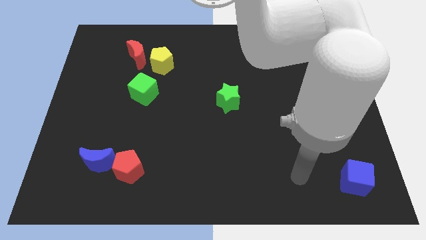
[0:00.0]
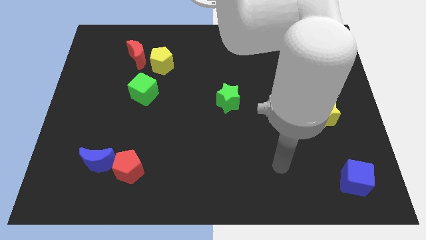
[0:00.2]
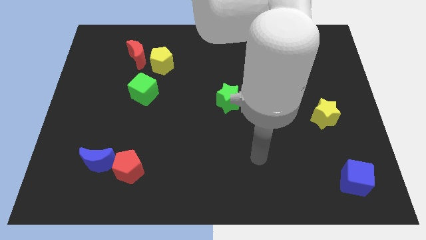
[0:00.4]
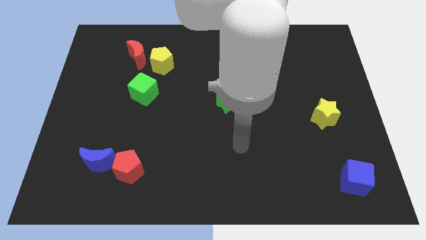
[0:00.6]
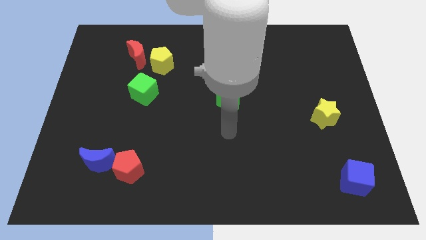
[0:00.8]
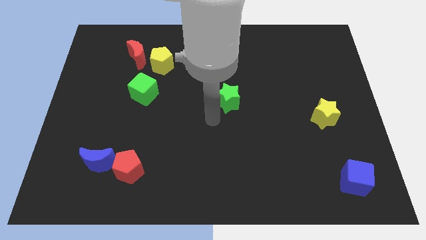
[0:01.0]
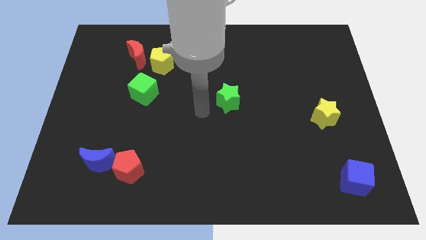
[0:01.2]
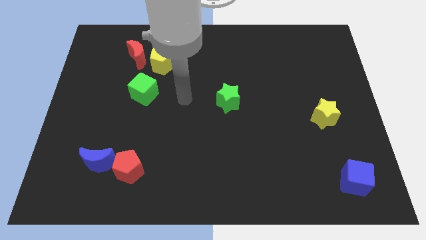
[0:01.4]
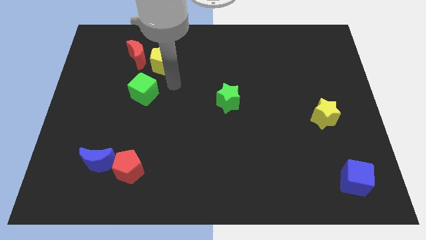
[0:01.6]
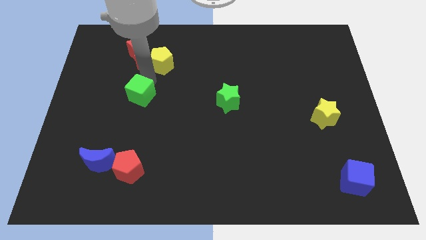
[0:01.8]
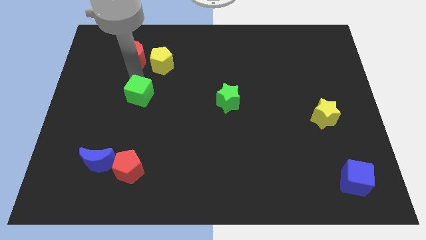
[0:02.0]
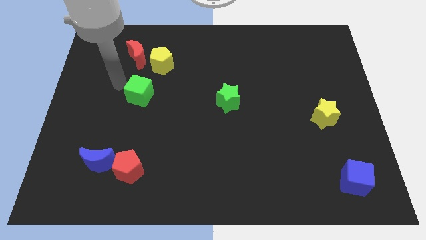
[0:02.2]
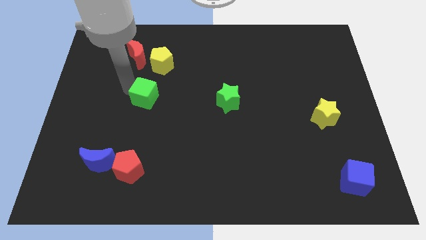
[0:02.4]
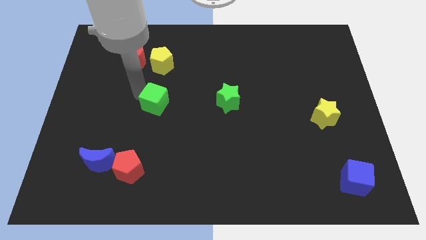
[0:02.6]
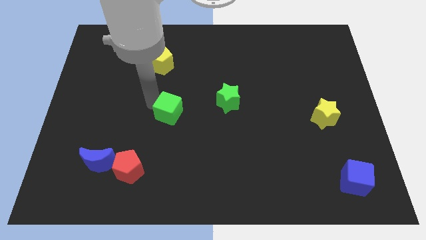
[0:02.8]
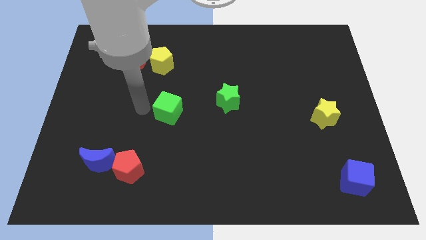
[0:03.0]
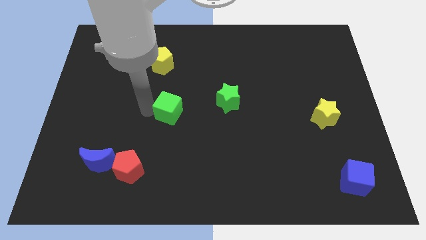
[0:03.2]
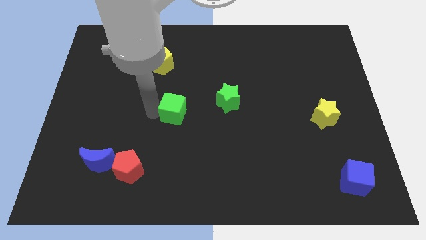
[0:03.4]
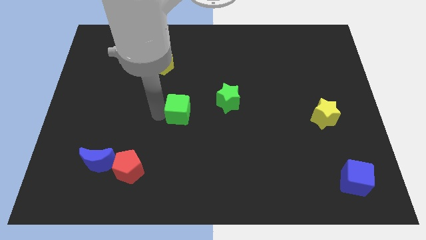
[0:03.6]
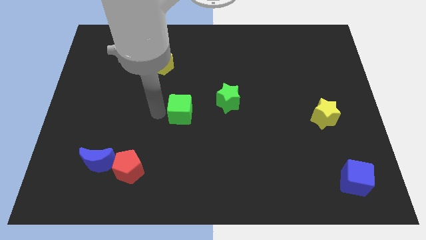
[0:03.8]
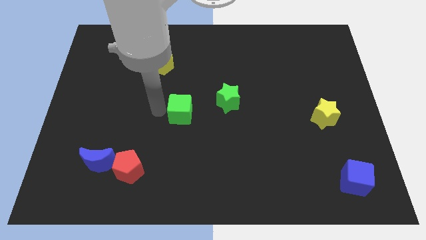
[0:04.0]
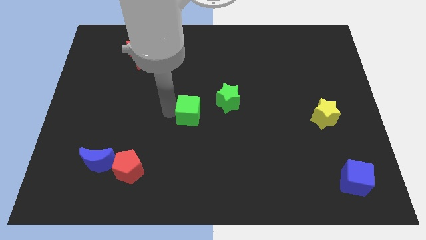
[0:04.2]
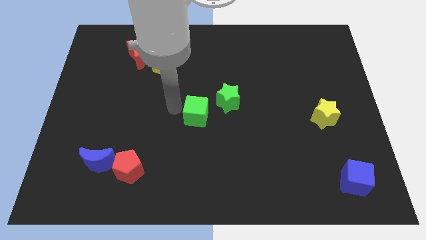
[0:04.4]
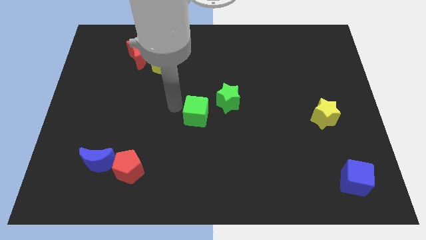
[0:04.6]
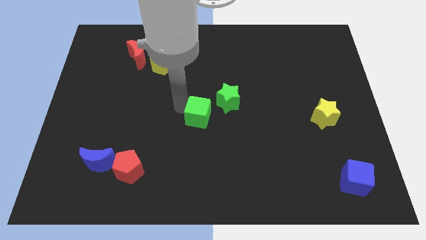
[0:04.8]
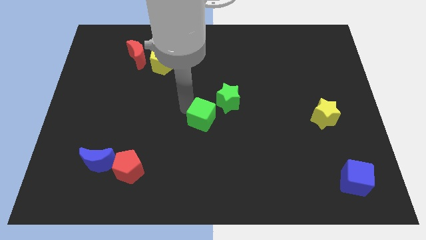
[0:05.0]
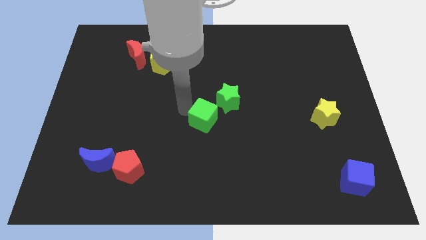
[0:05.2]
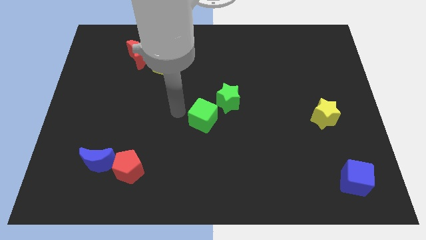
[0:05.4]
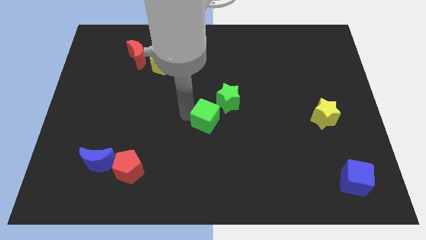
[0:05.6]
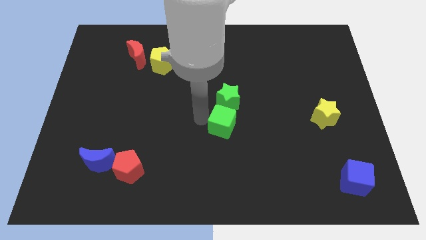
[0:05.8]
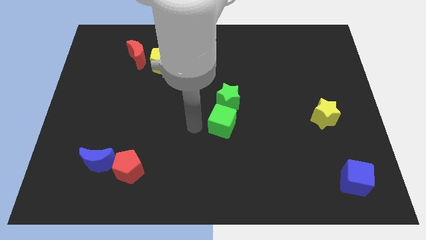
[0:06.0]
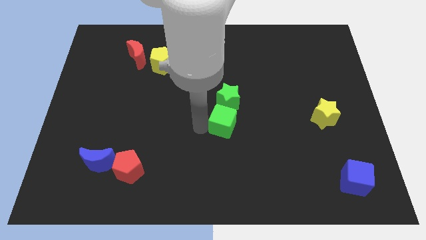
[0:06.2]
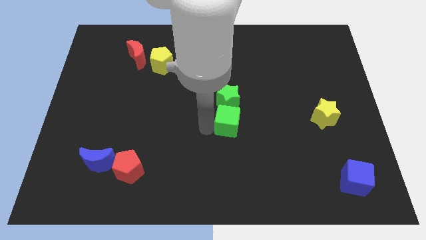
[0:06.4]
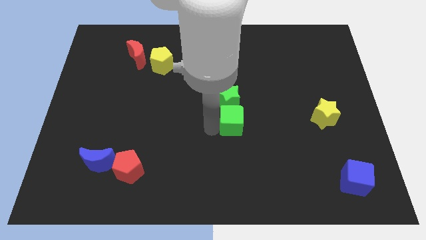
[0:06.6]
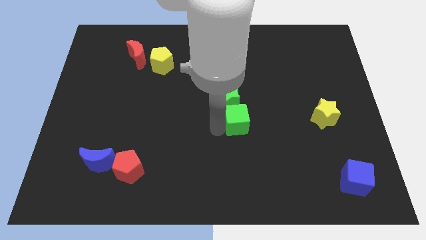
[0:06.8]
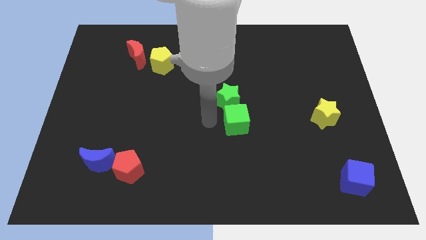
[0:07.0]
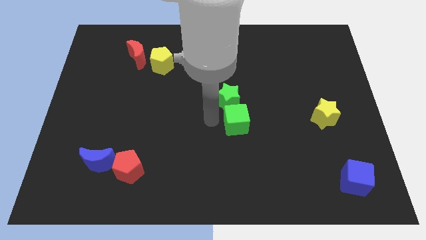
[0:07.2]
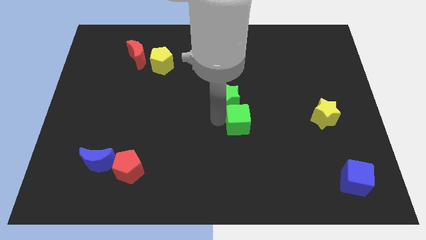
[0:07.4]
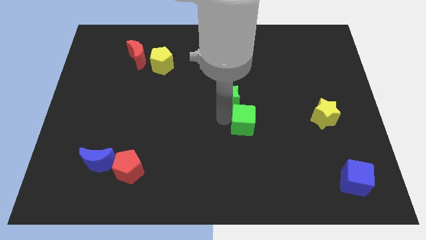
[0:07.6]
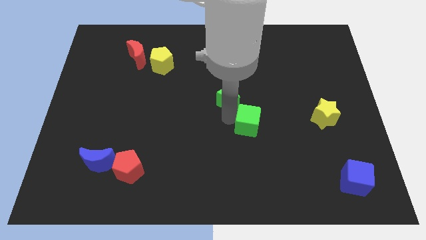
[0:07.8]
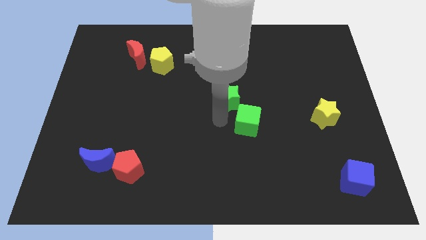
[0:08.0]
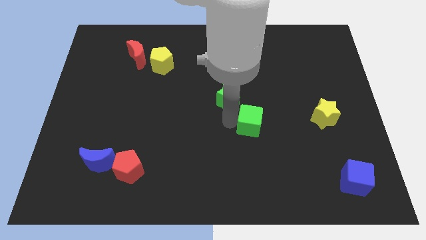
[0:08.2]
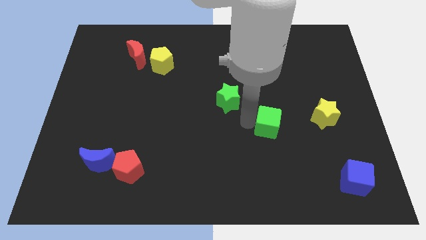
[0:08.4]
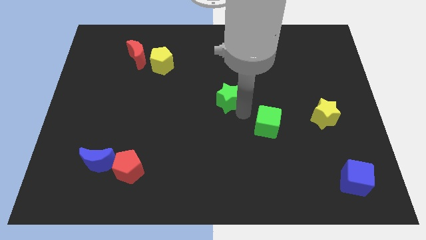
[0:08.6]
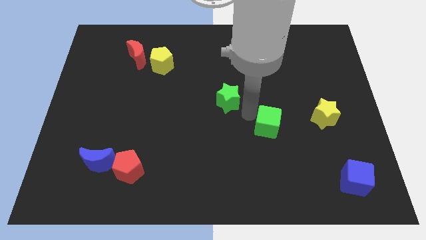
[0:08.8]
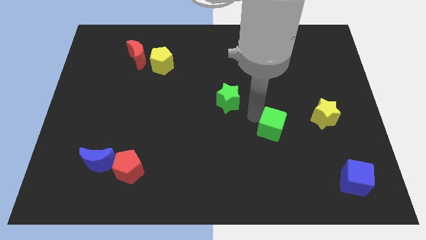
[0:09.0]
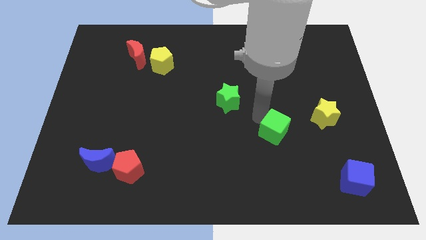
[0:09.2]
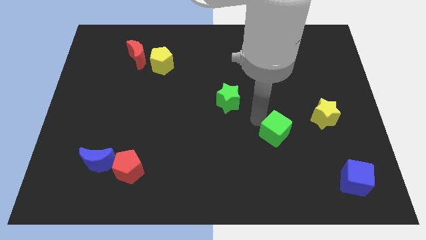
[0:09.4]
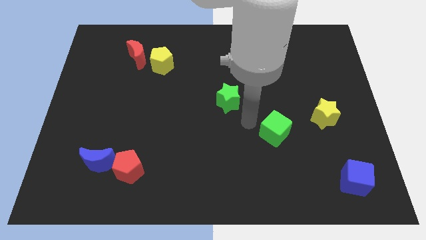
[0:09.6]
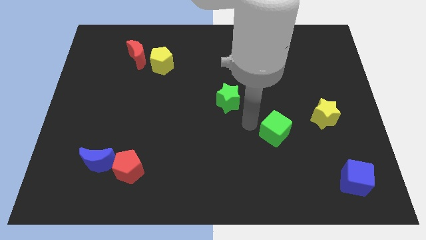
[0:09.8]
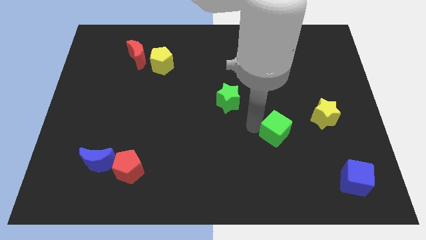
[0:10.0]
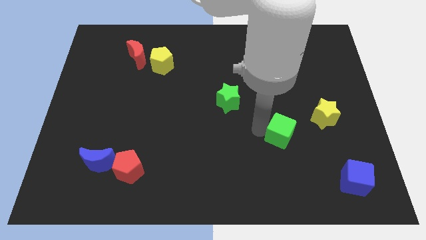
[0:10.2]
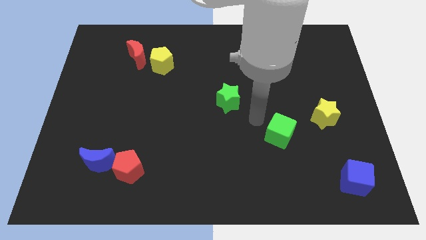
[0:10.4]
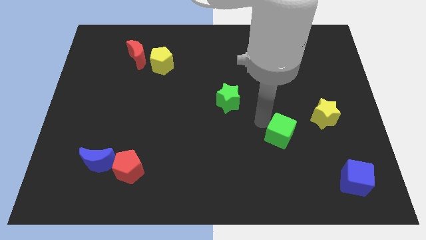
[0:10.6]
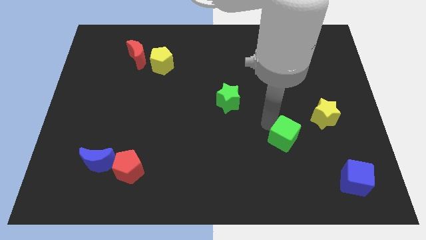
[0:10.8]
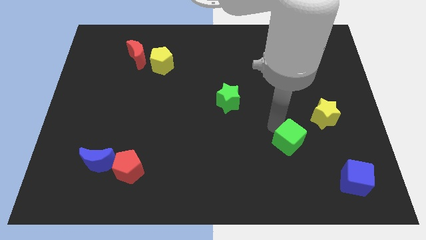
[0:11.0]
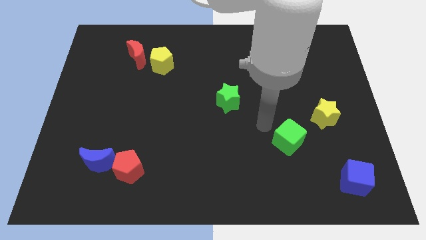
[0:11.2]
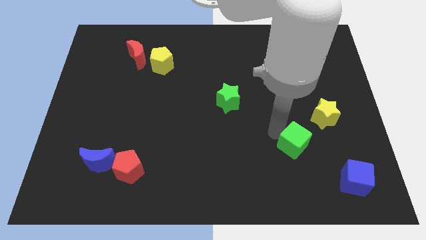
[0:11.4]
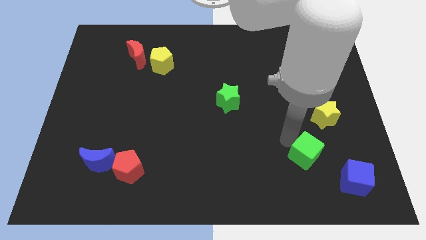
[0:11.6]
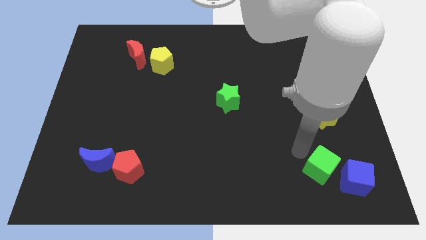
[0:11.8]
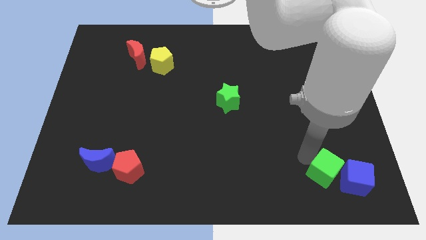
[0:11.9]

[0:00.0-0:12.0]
slide the green cube towards the blue cube

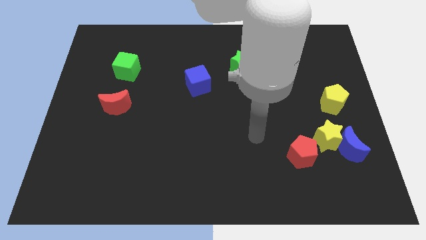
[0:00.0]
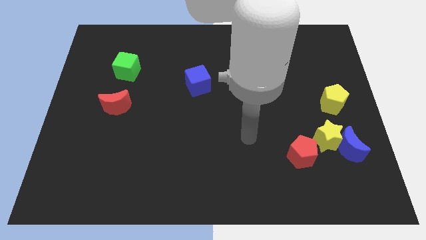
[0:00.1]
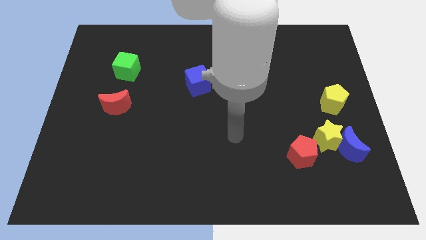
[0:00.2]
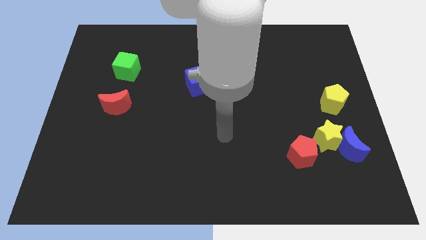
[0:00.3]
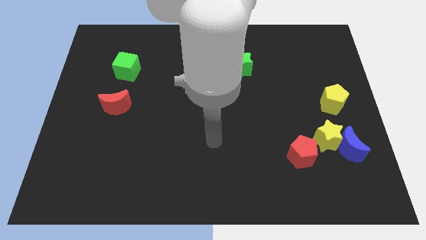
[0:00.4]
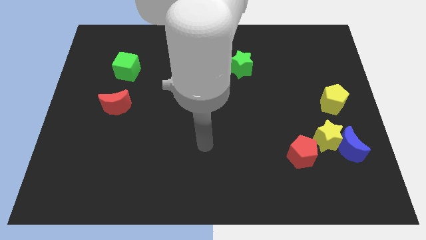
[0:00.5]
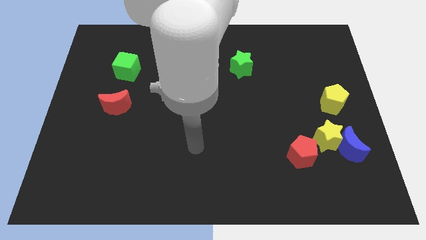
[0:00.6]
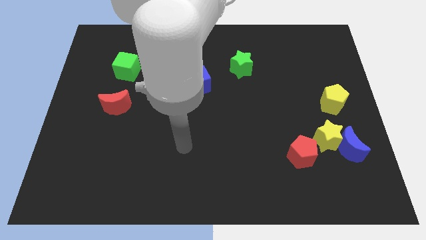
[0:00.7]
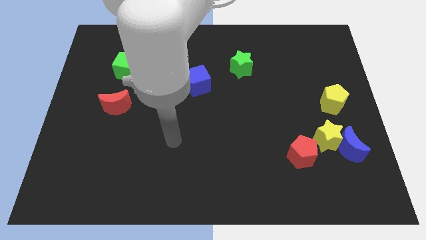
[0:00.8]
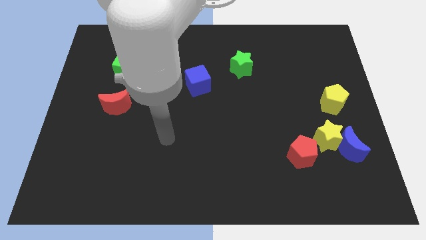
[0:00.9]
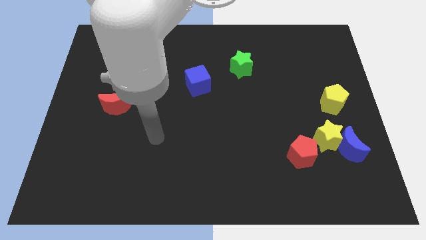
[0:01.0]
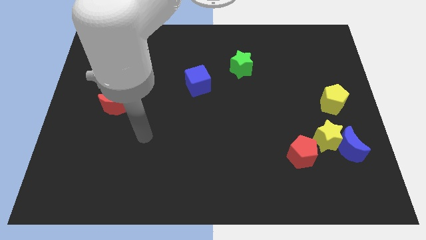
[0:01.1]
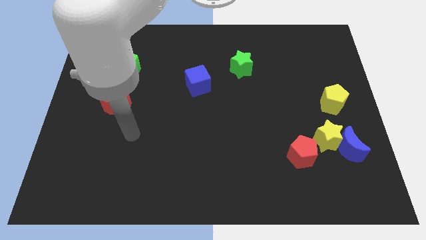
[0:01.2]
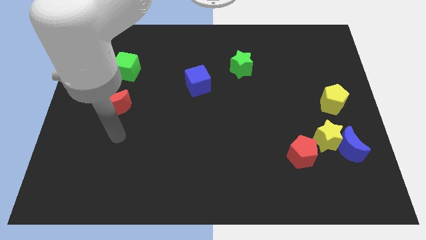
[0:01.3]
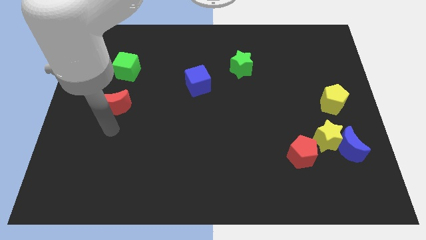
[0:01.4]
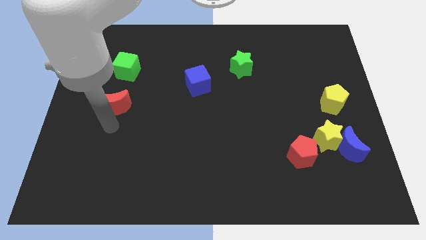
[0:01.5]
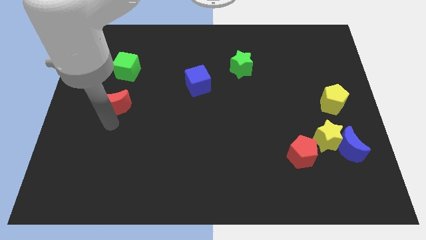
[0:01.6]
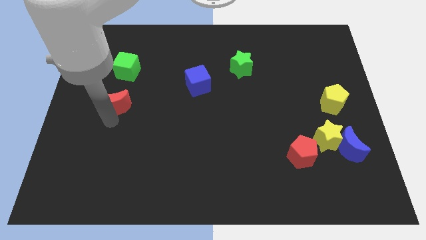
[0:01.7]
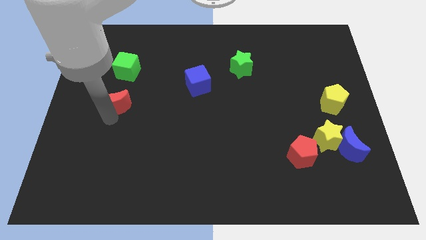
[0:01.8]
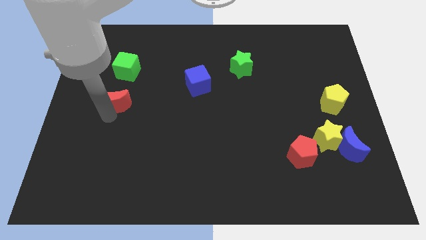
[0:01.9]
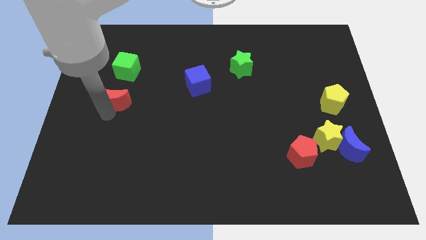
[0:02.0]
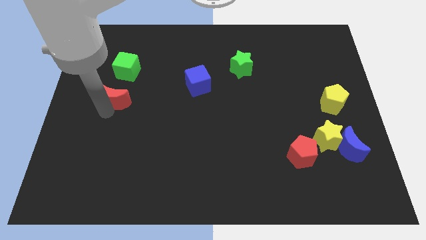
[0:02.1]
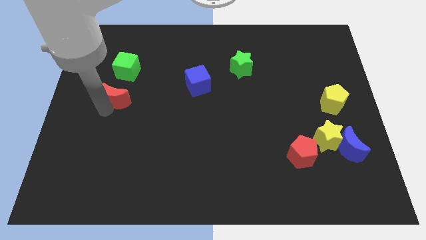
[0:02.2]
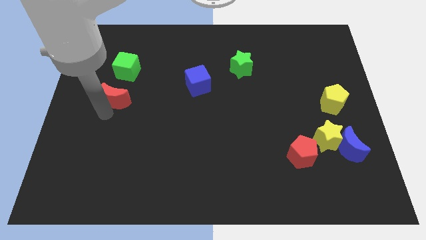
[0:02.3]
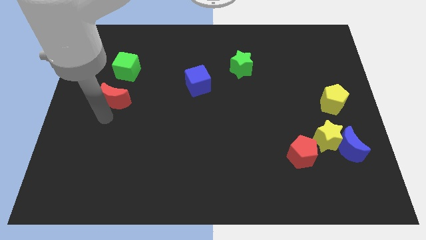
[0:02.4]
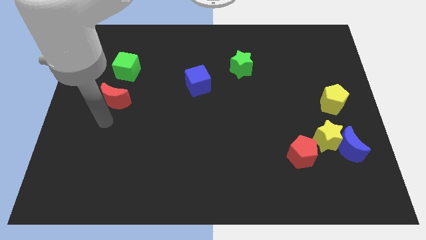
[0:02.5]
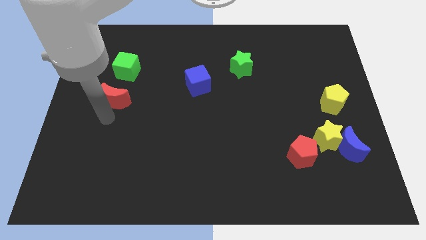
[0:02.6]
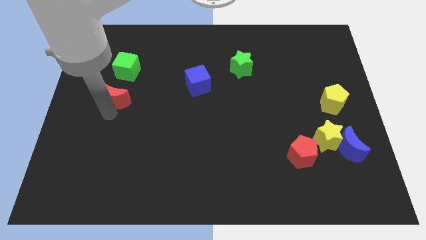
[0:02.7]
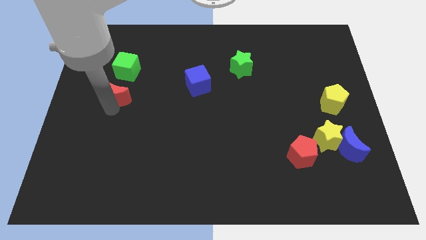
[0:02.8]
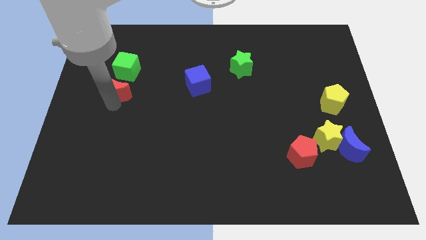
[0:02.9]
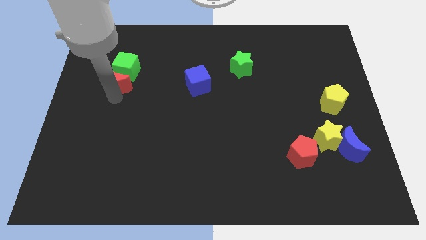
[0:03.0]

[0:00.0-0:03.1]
push the red moon next to the green cube
